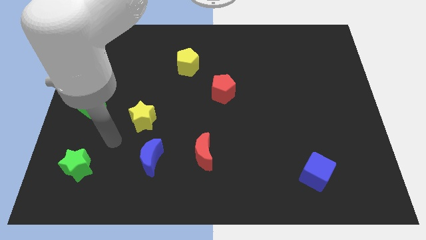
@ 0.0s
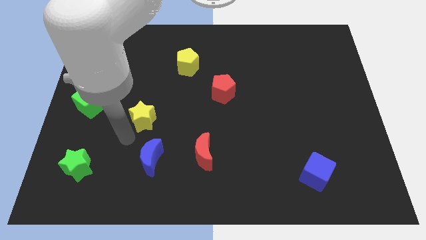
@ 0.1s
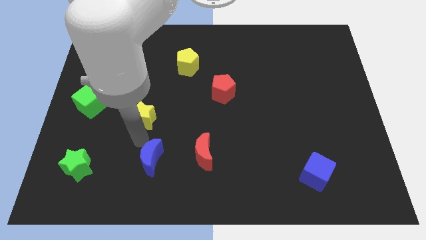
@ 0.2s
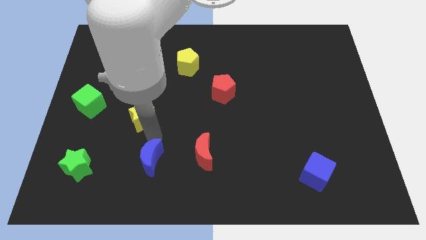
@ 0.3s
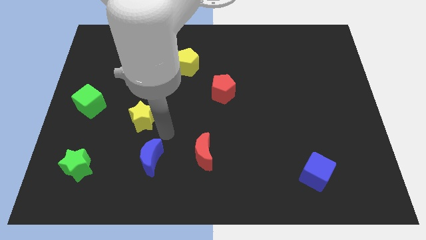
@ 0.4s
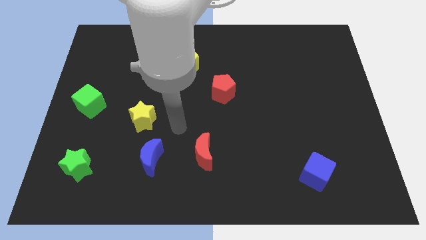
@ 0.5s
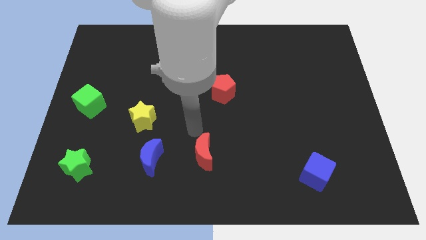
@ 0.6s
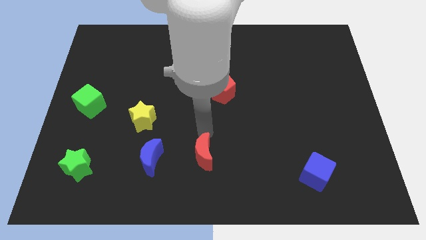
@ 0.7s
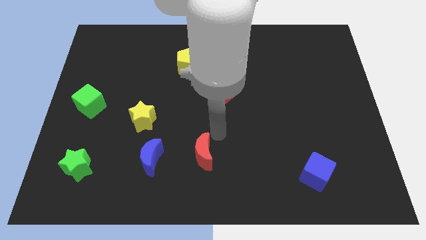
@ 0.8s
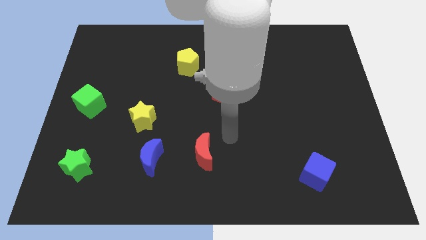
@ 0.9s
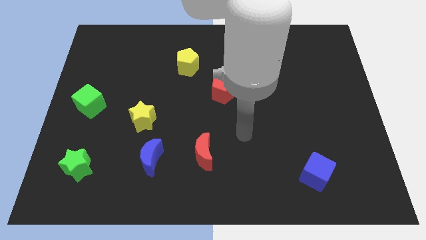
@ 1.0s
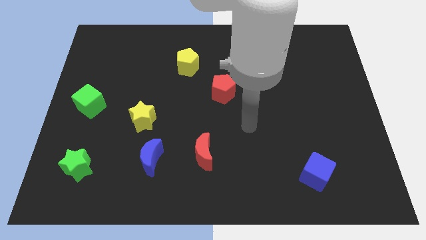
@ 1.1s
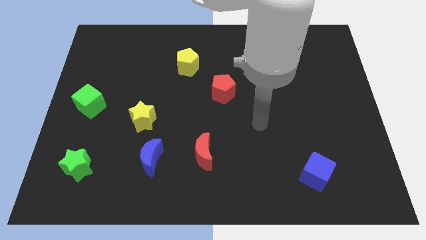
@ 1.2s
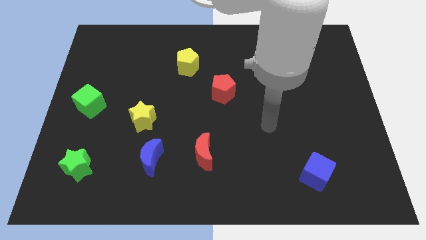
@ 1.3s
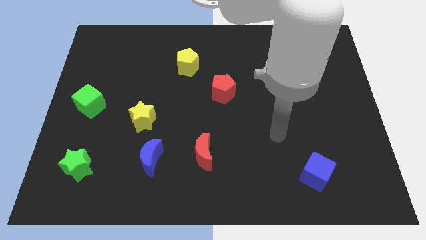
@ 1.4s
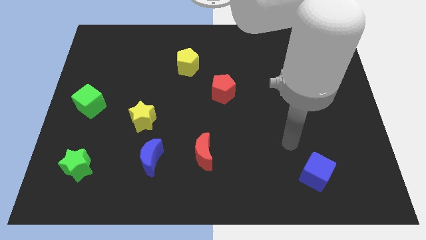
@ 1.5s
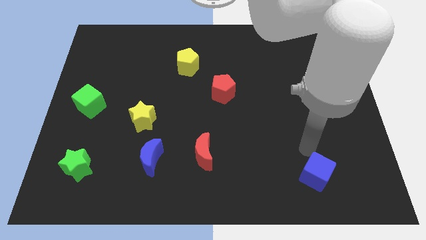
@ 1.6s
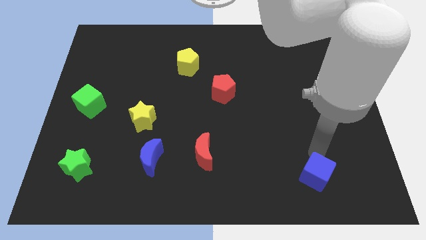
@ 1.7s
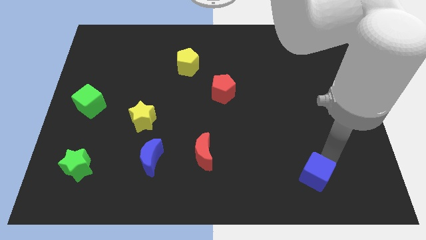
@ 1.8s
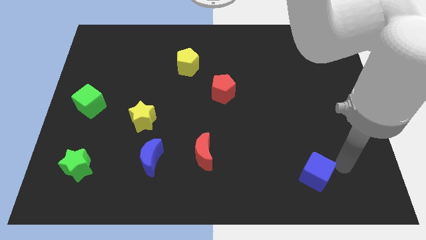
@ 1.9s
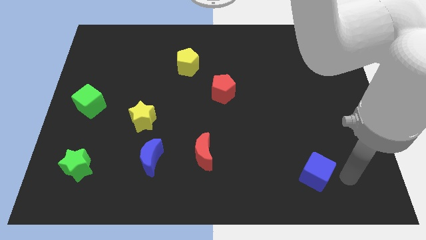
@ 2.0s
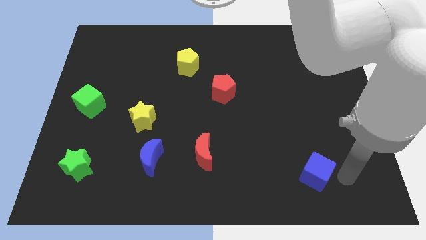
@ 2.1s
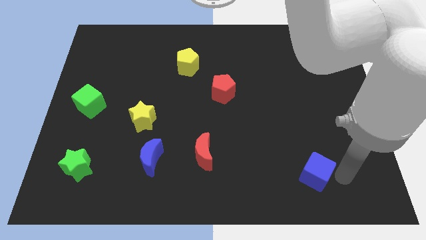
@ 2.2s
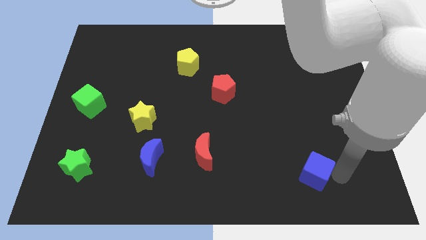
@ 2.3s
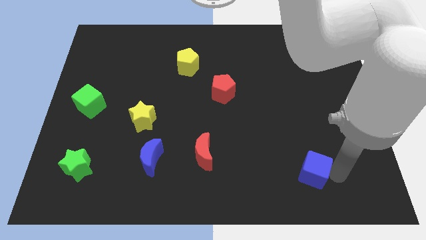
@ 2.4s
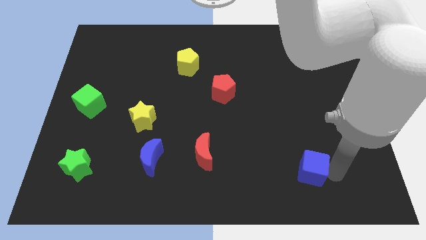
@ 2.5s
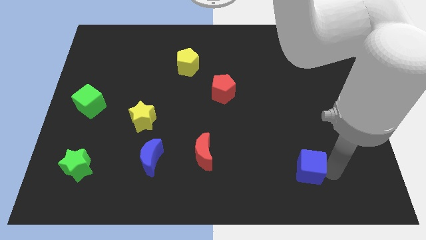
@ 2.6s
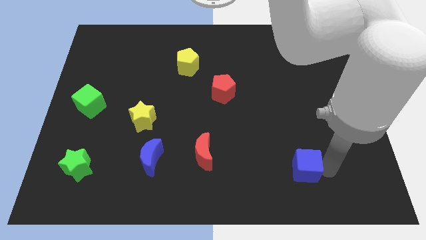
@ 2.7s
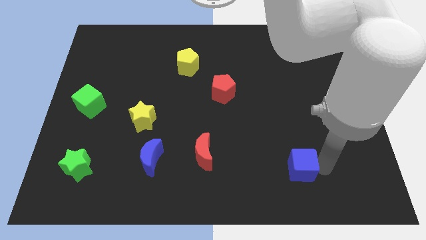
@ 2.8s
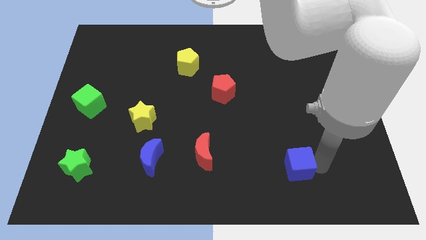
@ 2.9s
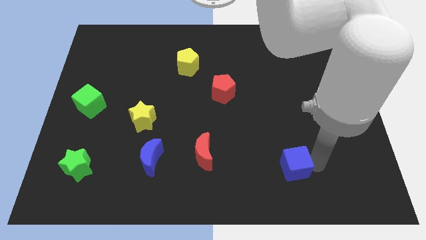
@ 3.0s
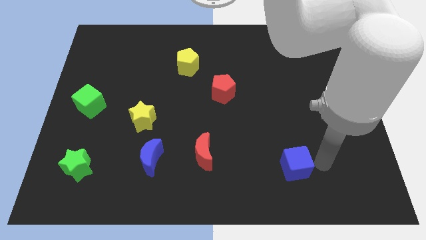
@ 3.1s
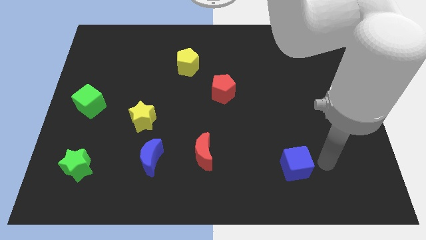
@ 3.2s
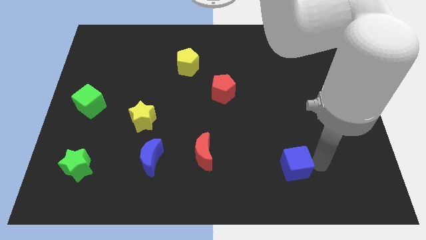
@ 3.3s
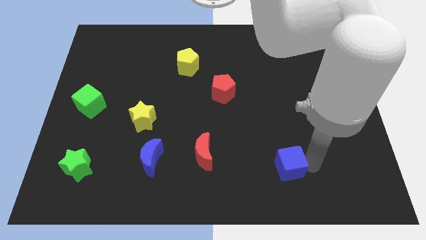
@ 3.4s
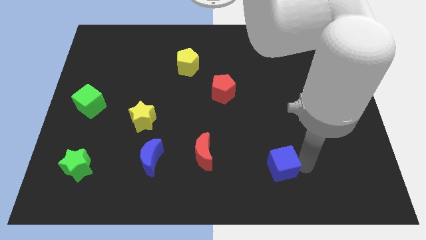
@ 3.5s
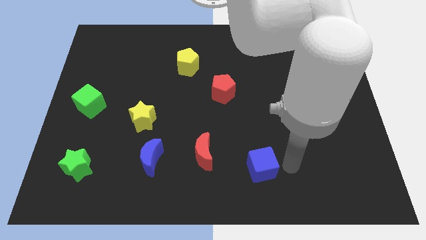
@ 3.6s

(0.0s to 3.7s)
push the blue cube to the left a bit

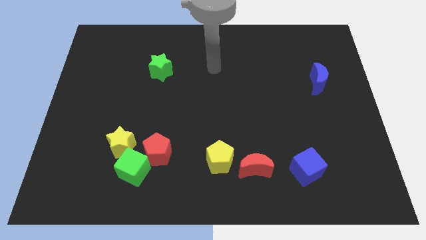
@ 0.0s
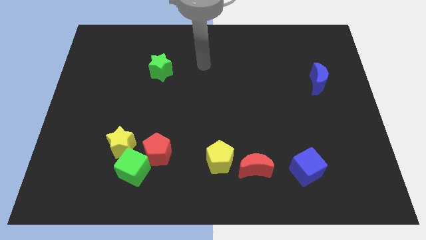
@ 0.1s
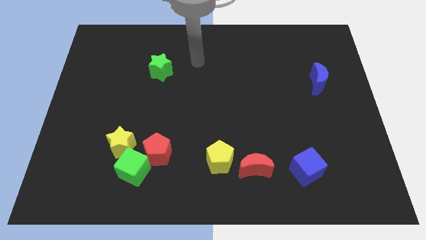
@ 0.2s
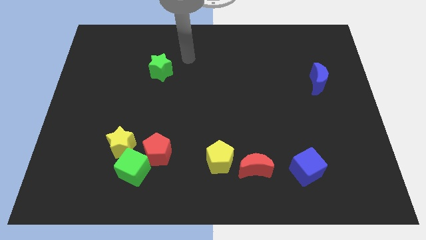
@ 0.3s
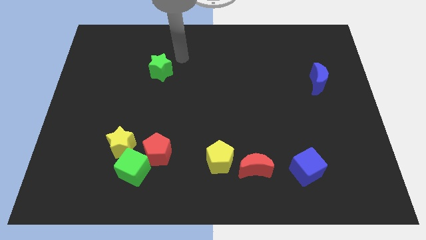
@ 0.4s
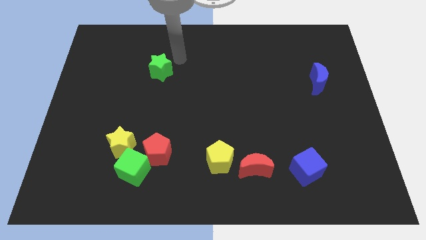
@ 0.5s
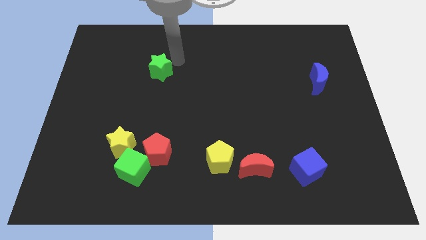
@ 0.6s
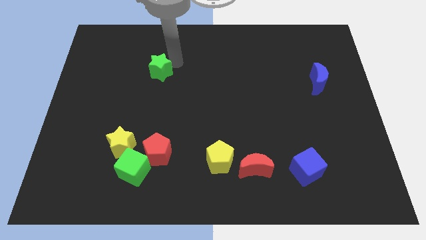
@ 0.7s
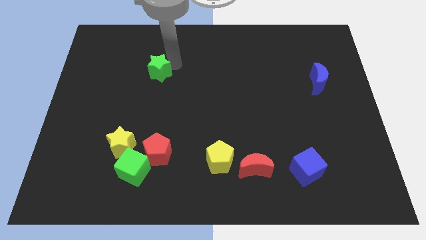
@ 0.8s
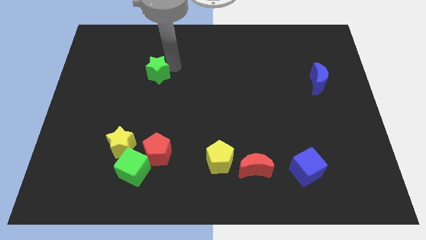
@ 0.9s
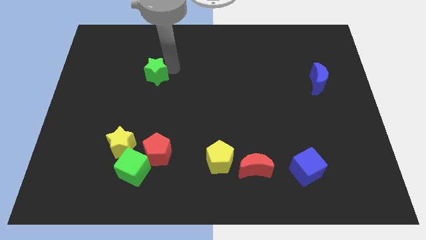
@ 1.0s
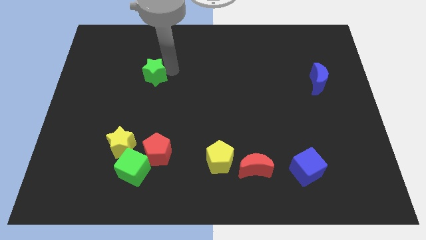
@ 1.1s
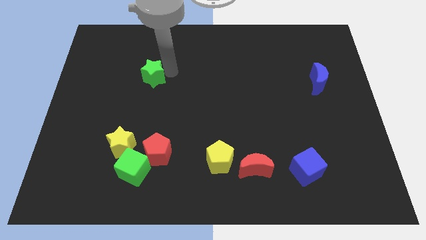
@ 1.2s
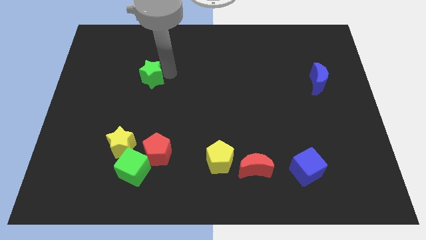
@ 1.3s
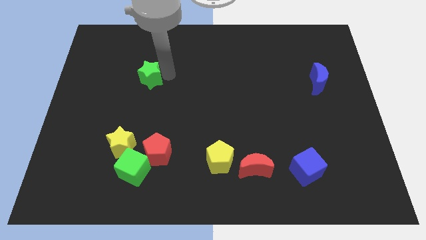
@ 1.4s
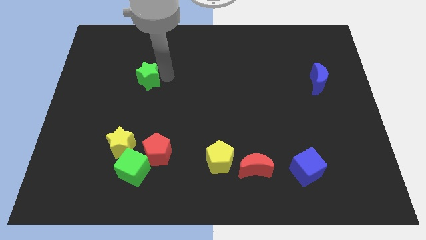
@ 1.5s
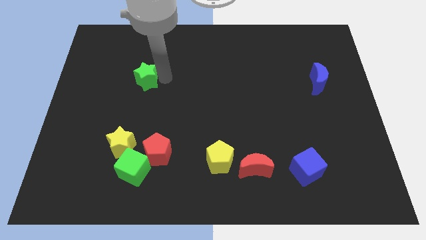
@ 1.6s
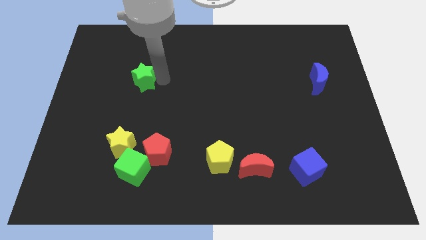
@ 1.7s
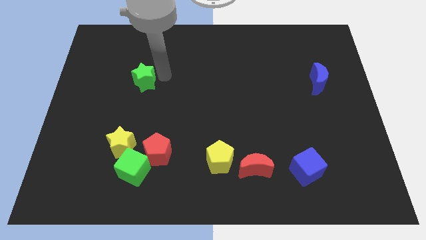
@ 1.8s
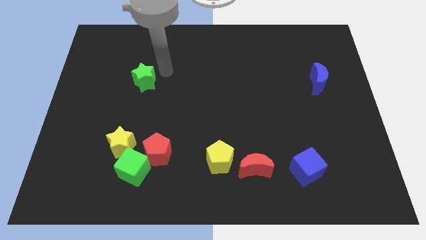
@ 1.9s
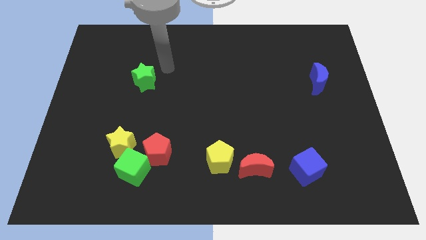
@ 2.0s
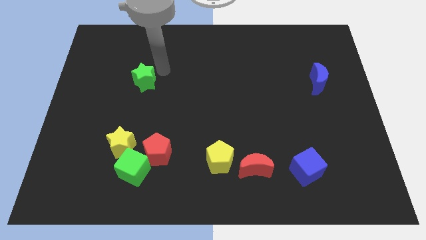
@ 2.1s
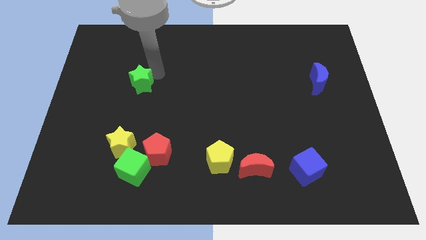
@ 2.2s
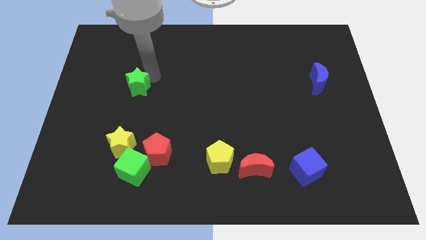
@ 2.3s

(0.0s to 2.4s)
slightly push the green star down and then to the left

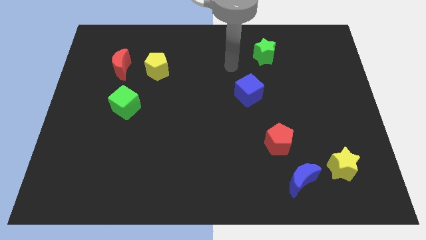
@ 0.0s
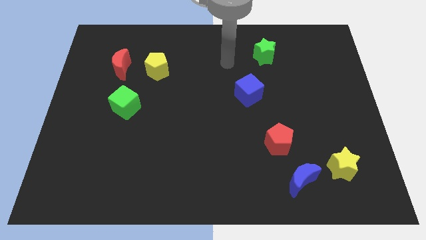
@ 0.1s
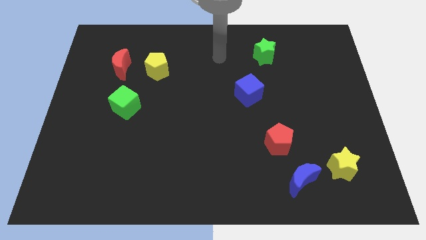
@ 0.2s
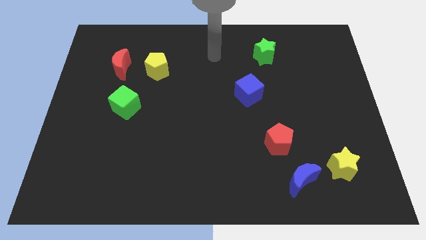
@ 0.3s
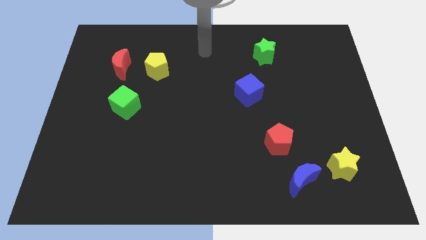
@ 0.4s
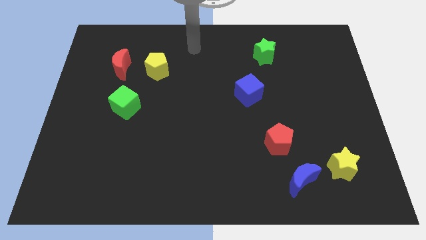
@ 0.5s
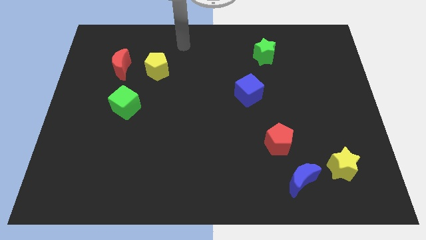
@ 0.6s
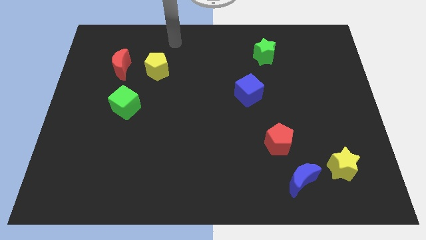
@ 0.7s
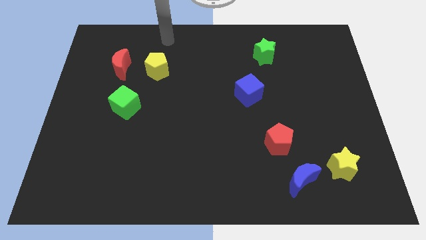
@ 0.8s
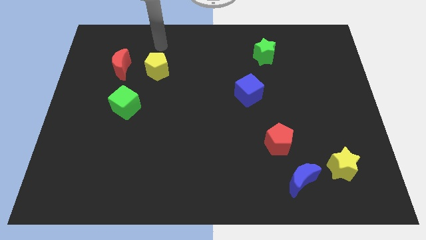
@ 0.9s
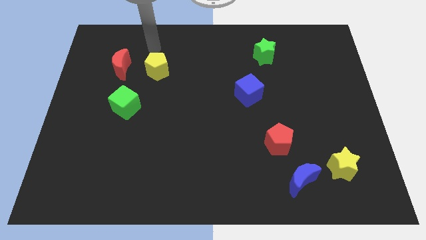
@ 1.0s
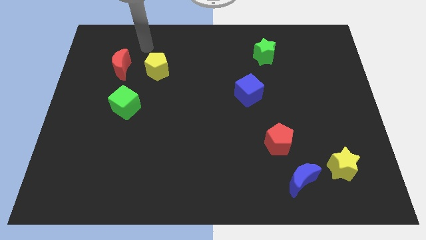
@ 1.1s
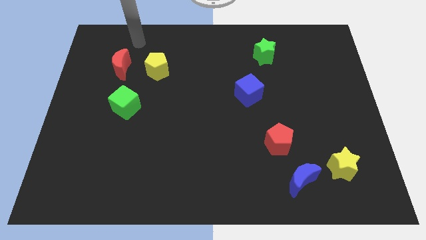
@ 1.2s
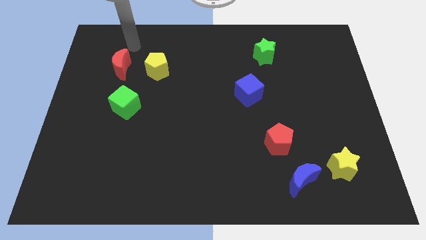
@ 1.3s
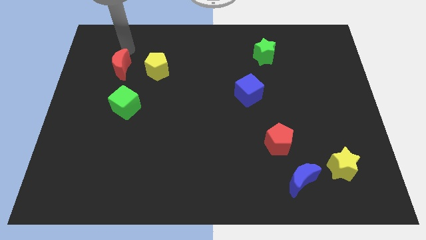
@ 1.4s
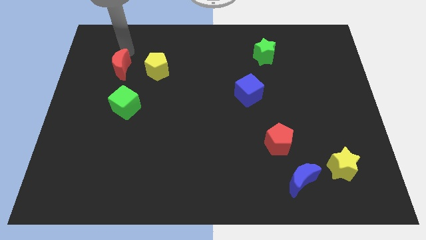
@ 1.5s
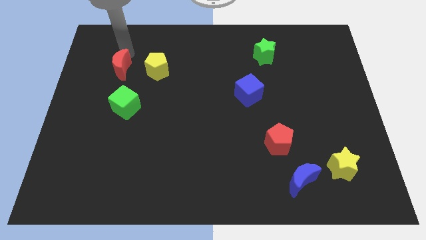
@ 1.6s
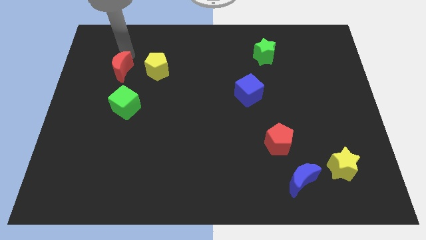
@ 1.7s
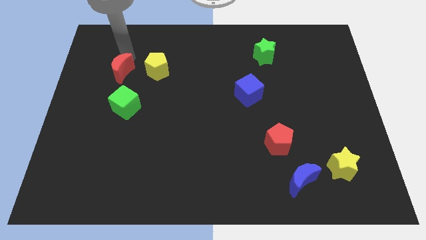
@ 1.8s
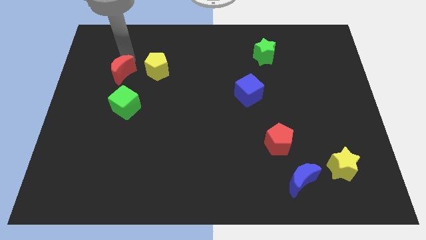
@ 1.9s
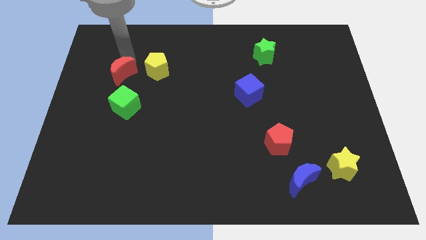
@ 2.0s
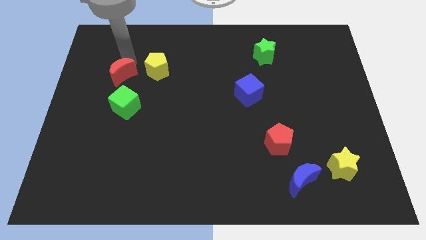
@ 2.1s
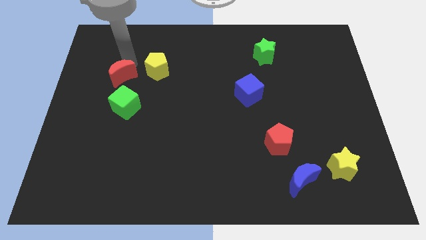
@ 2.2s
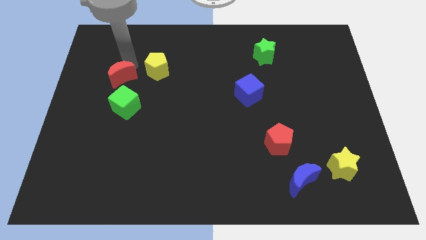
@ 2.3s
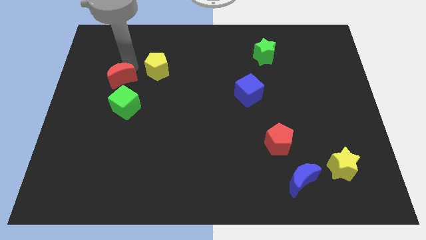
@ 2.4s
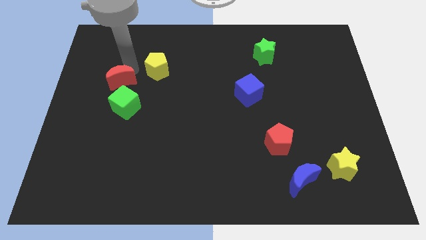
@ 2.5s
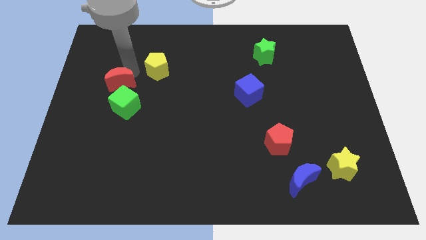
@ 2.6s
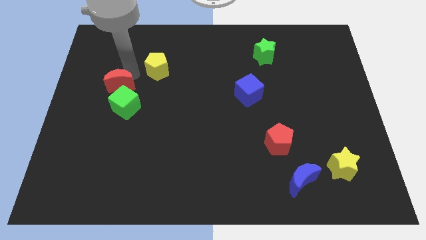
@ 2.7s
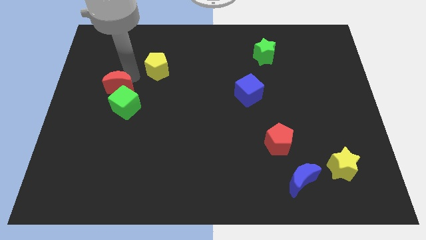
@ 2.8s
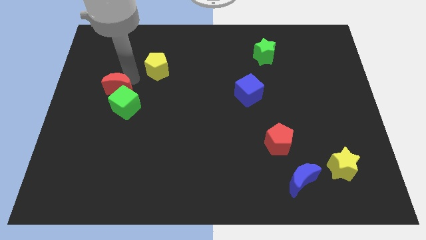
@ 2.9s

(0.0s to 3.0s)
slide the red moon a little bit down
